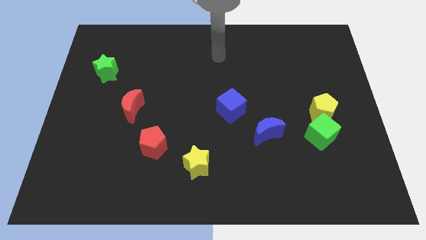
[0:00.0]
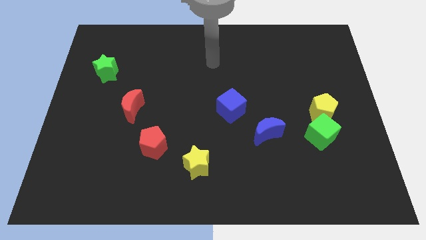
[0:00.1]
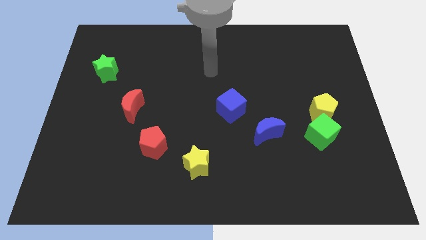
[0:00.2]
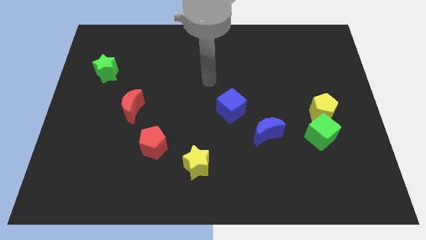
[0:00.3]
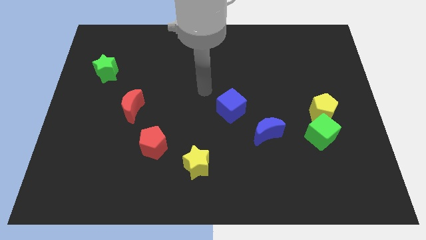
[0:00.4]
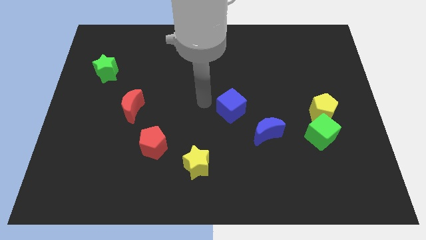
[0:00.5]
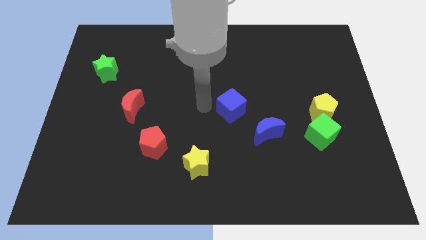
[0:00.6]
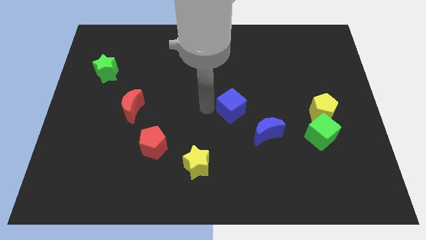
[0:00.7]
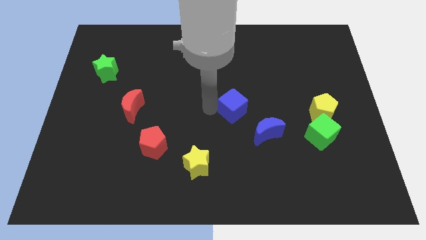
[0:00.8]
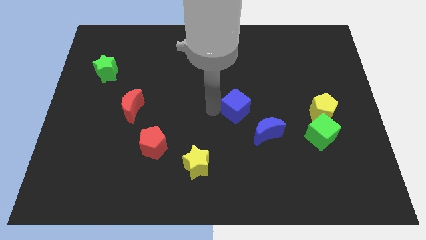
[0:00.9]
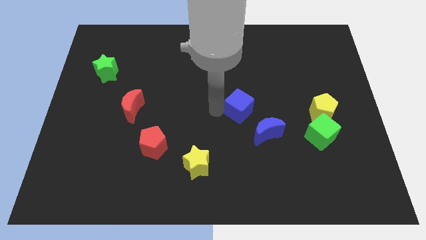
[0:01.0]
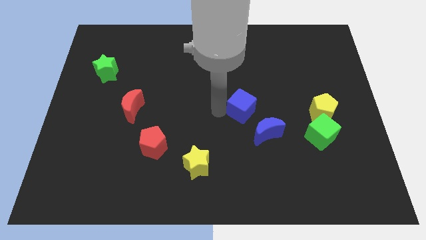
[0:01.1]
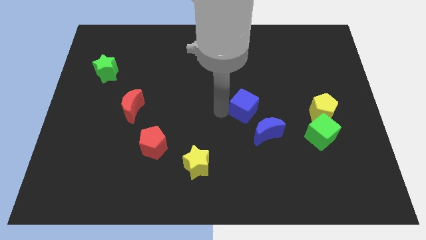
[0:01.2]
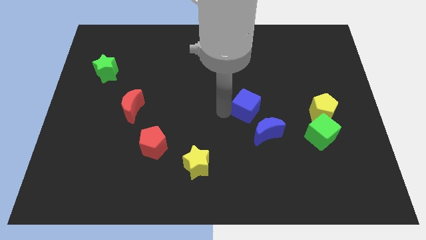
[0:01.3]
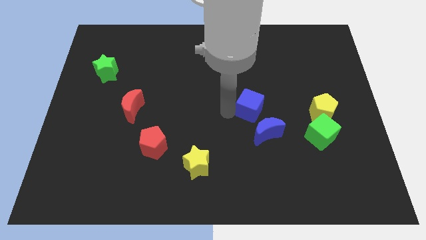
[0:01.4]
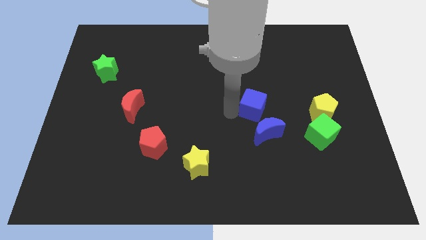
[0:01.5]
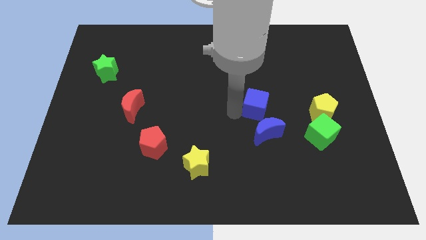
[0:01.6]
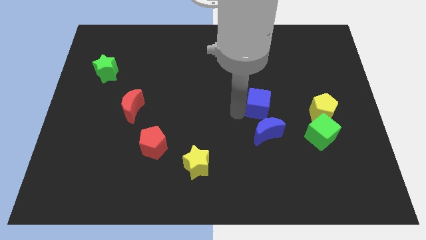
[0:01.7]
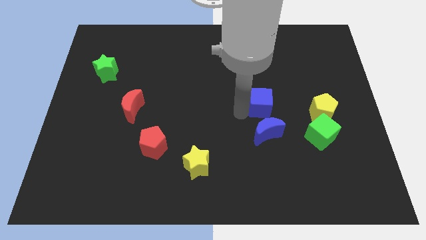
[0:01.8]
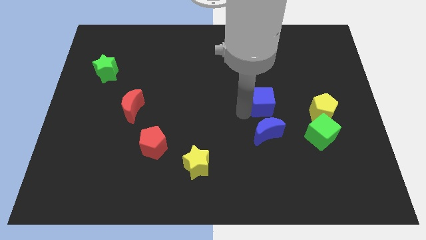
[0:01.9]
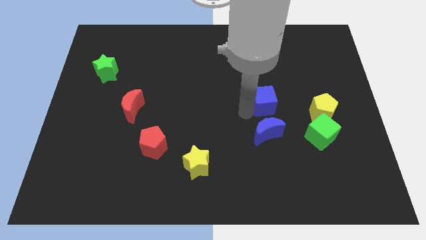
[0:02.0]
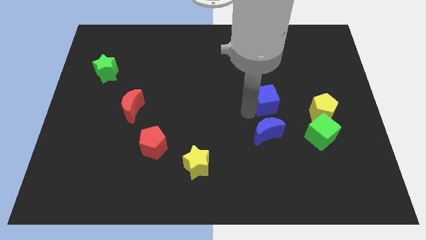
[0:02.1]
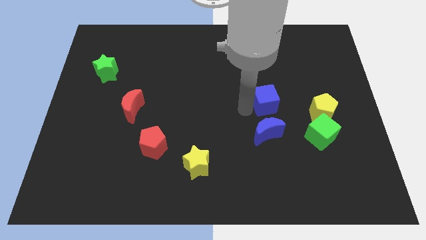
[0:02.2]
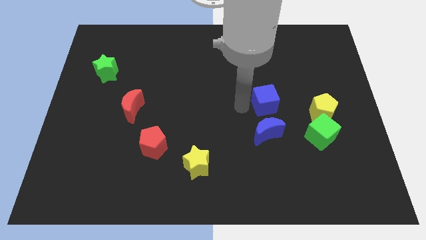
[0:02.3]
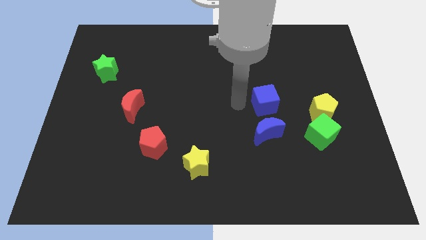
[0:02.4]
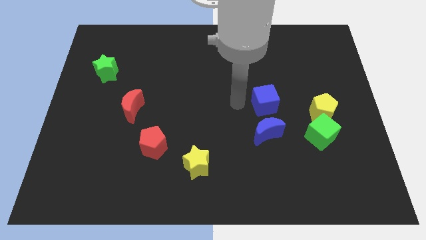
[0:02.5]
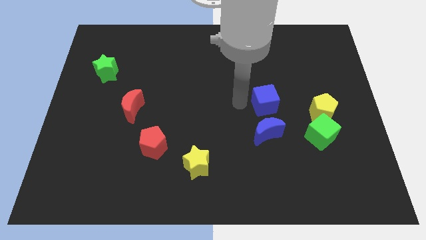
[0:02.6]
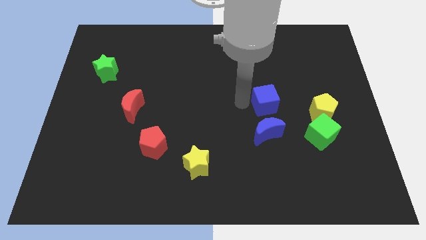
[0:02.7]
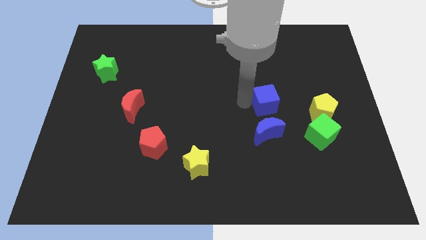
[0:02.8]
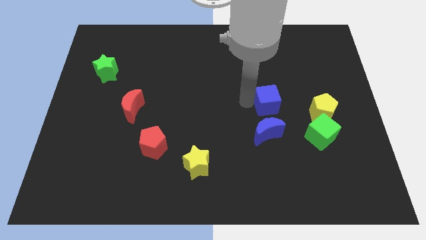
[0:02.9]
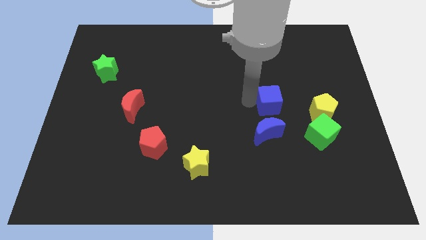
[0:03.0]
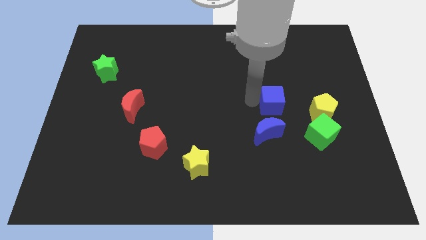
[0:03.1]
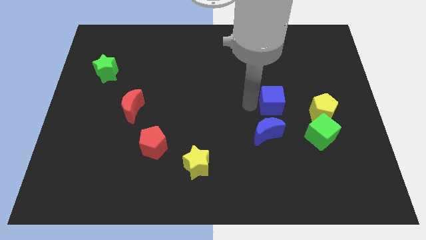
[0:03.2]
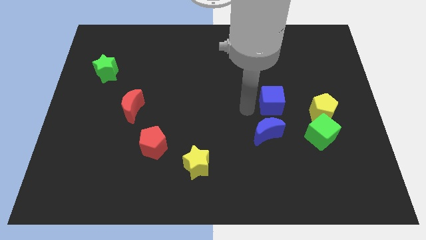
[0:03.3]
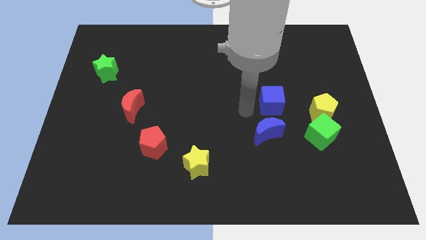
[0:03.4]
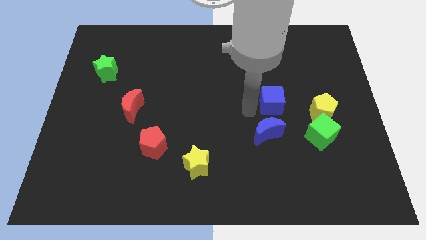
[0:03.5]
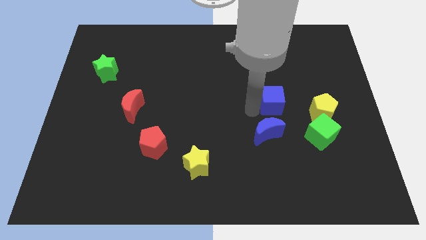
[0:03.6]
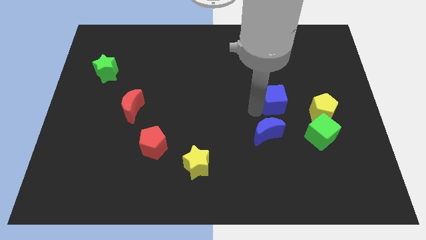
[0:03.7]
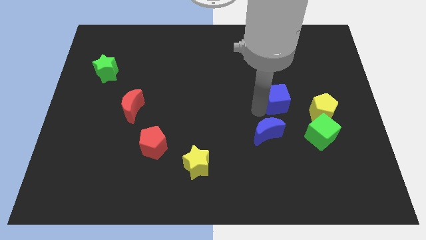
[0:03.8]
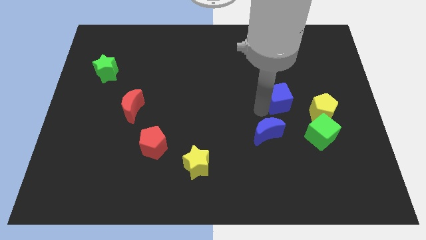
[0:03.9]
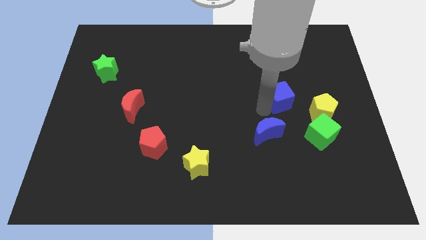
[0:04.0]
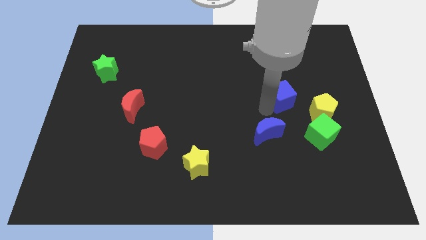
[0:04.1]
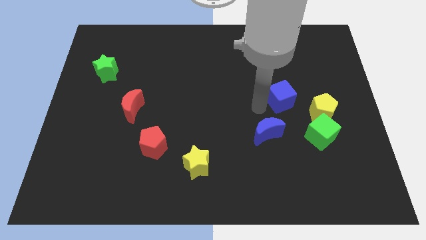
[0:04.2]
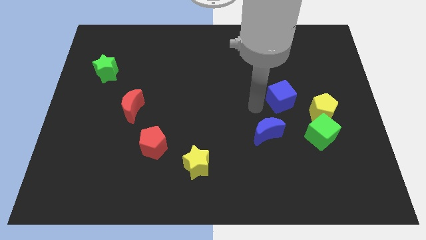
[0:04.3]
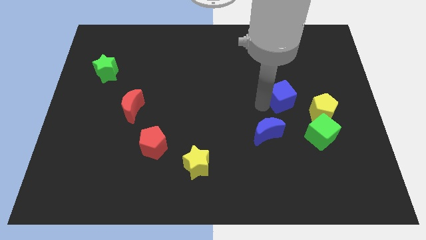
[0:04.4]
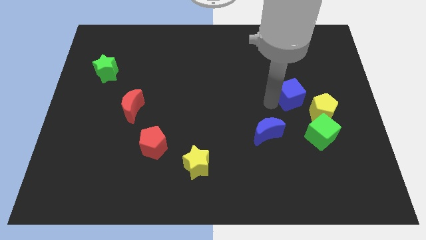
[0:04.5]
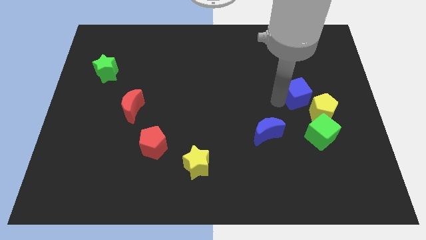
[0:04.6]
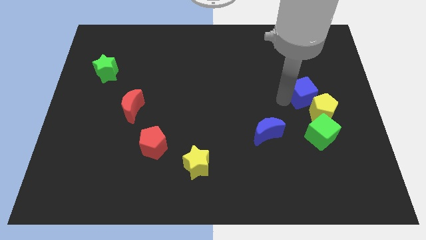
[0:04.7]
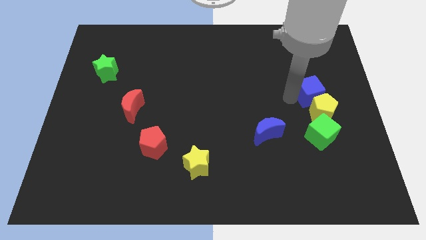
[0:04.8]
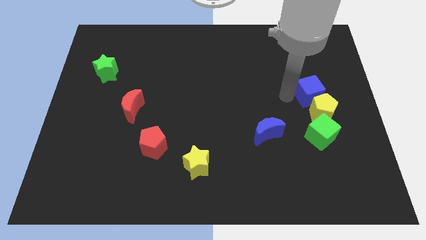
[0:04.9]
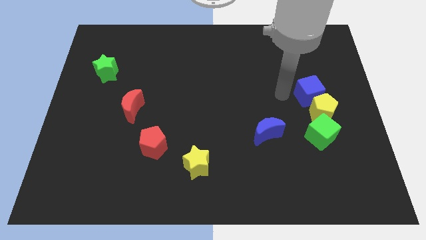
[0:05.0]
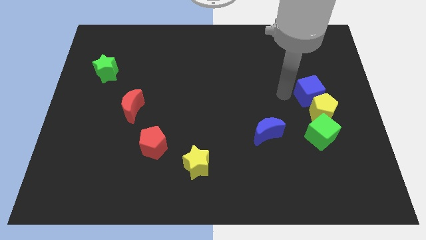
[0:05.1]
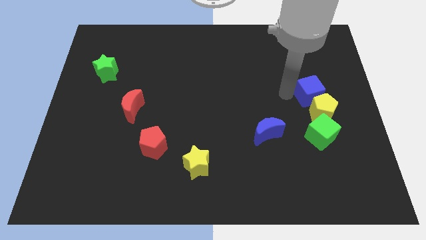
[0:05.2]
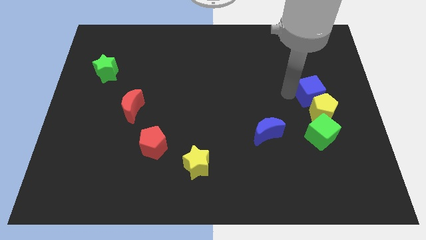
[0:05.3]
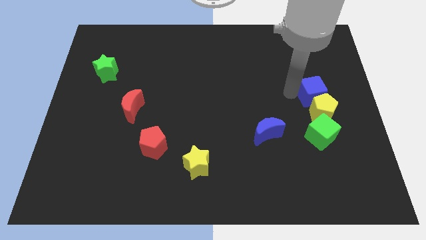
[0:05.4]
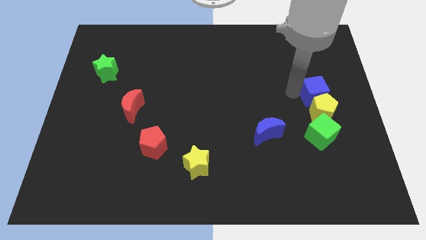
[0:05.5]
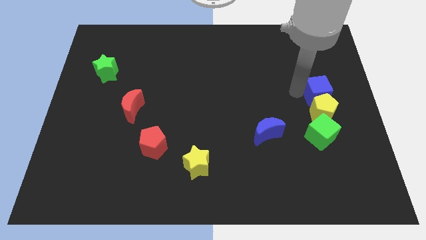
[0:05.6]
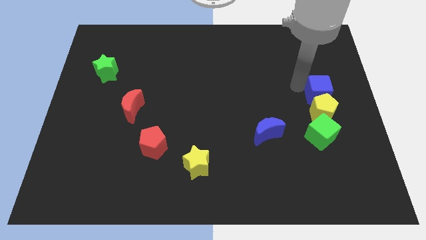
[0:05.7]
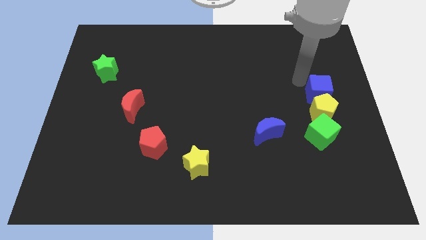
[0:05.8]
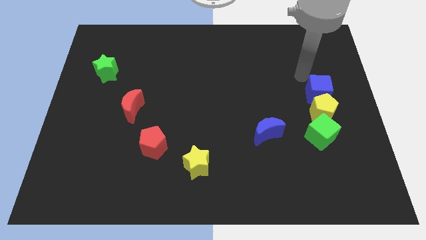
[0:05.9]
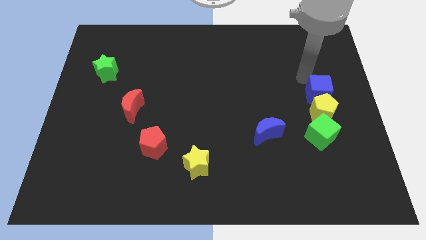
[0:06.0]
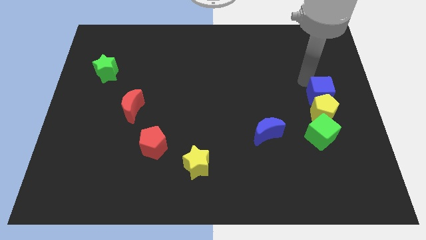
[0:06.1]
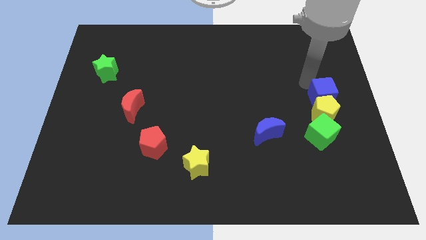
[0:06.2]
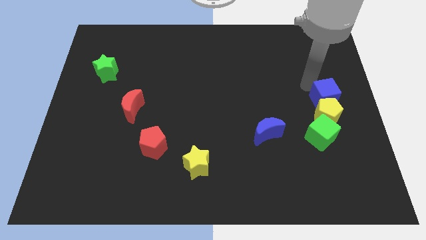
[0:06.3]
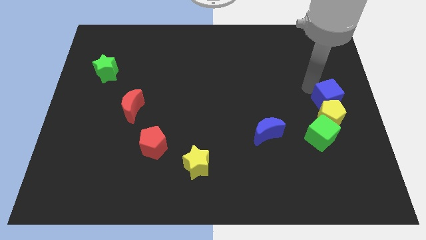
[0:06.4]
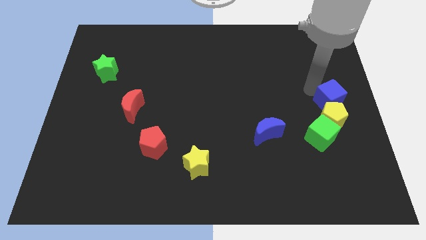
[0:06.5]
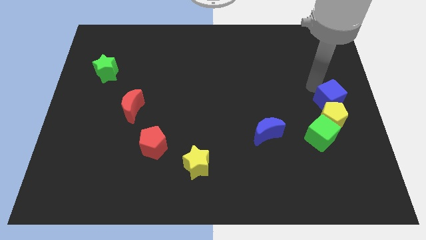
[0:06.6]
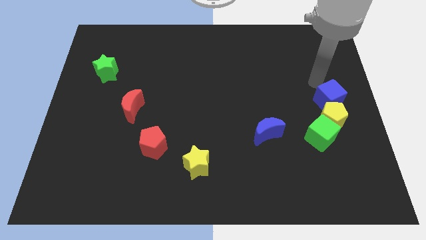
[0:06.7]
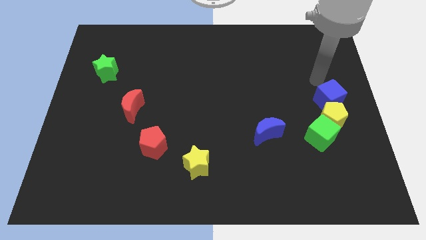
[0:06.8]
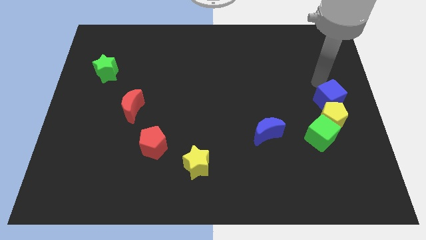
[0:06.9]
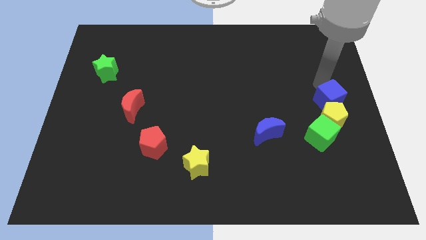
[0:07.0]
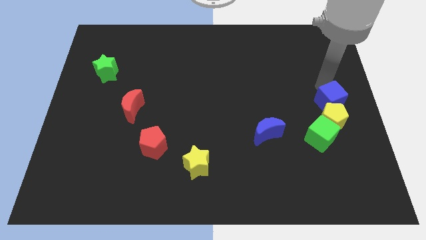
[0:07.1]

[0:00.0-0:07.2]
move the blue cube to the top right of the green cube
